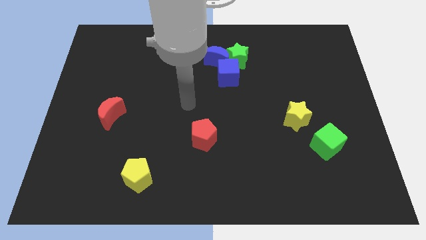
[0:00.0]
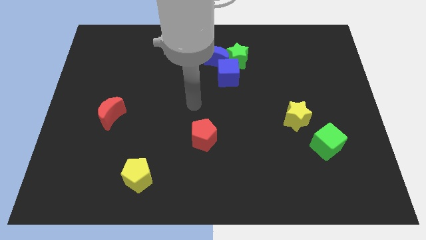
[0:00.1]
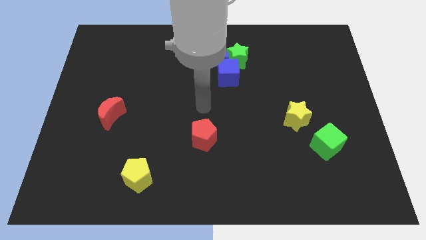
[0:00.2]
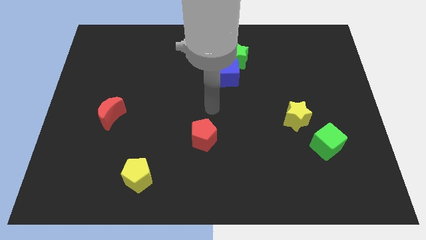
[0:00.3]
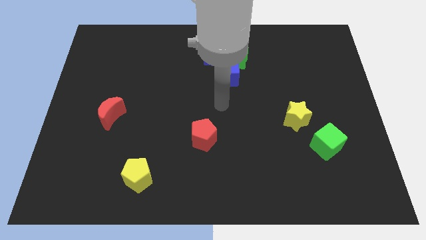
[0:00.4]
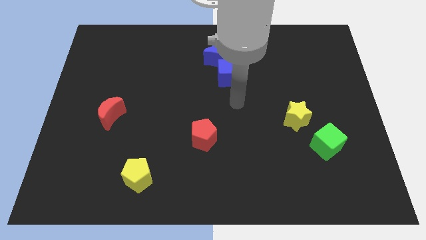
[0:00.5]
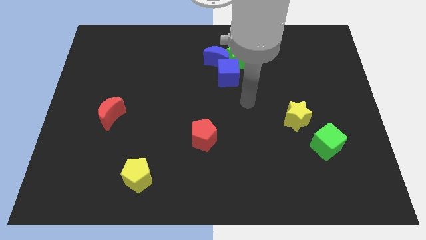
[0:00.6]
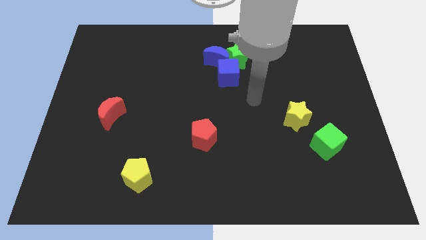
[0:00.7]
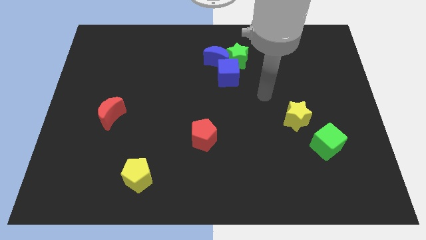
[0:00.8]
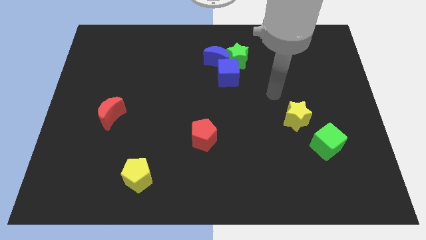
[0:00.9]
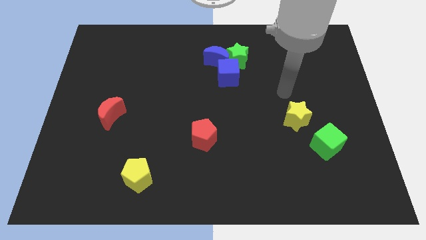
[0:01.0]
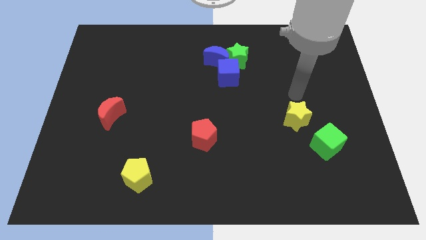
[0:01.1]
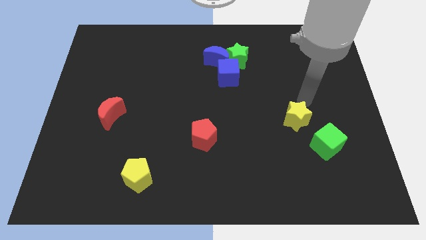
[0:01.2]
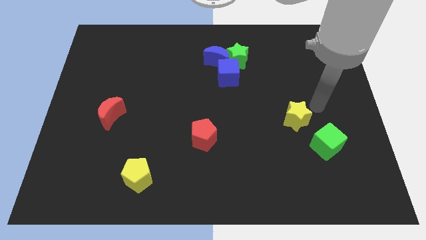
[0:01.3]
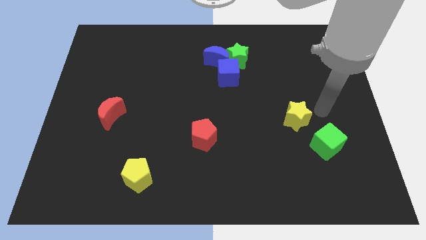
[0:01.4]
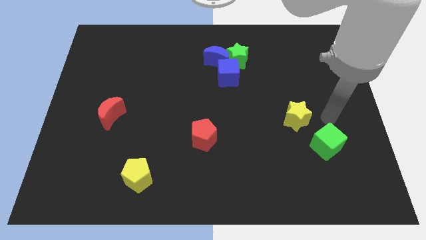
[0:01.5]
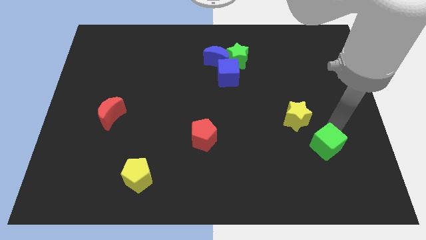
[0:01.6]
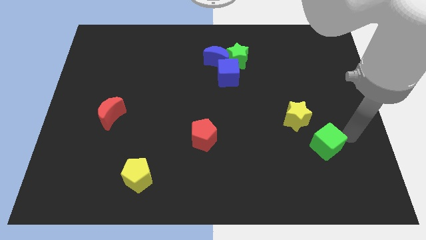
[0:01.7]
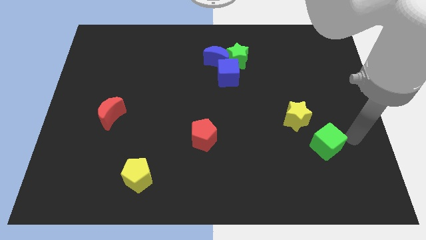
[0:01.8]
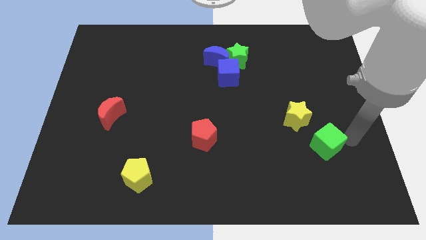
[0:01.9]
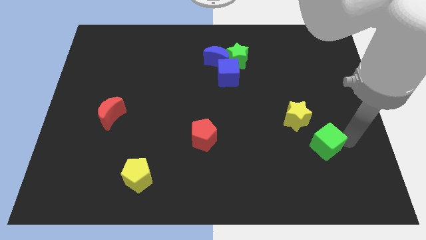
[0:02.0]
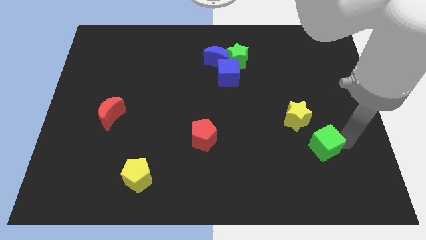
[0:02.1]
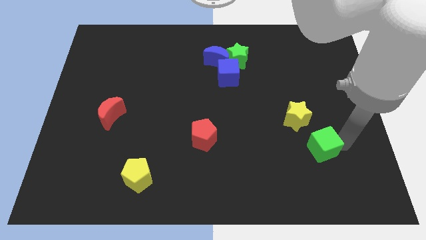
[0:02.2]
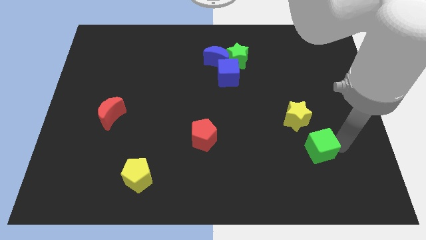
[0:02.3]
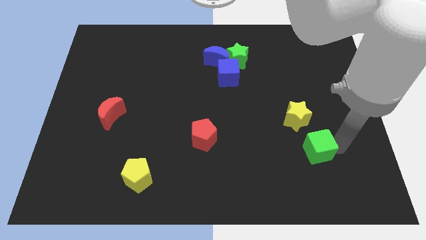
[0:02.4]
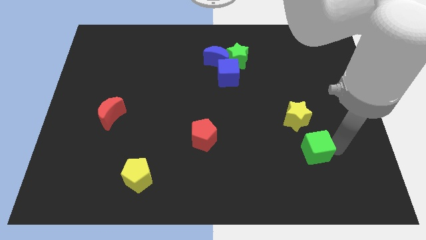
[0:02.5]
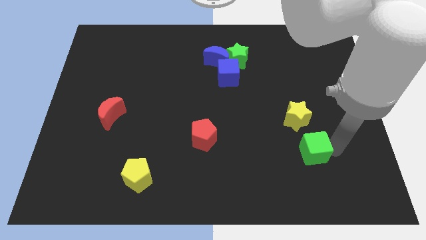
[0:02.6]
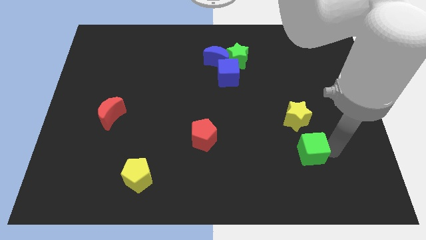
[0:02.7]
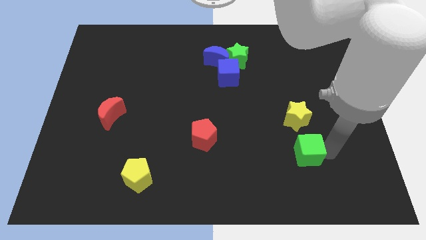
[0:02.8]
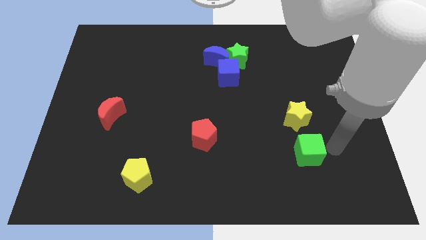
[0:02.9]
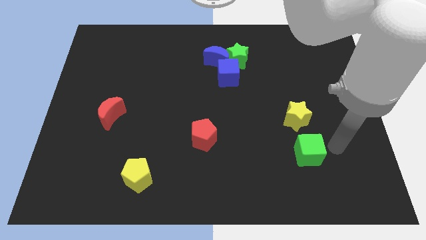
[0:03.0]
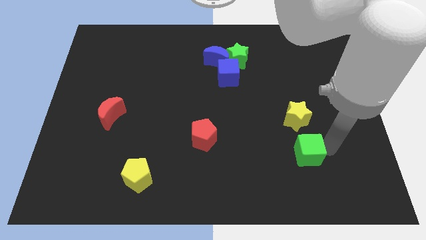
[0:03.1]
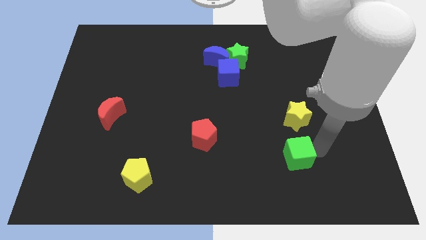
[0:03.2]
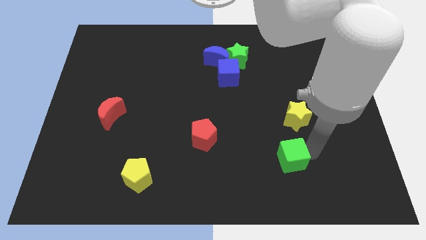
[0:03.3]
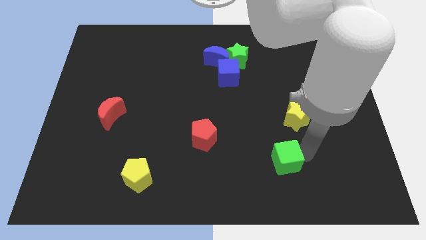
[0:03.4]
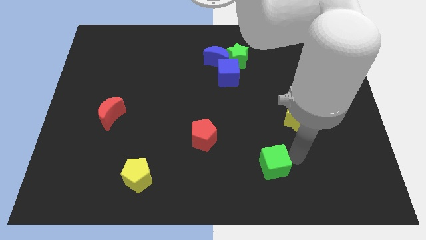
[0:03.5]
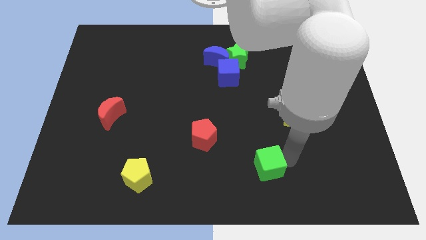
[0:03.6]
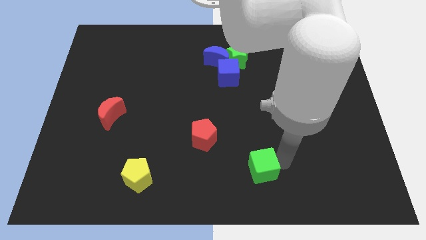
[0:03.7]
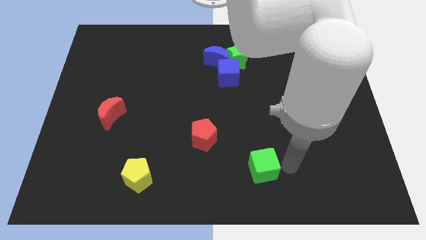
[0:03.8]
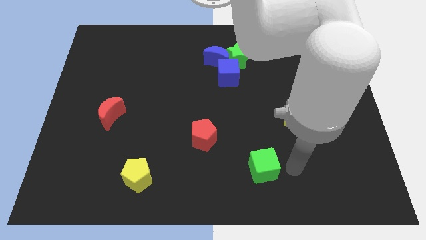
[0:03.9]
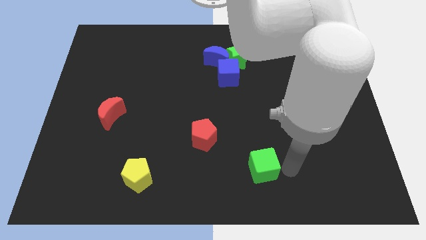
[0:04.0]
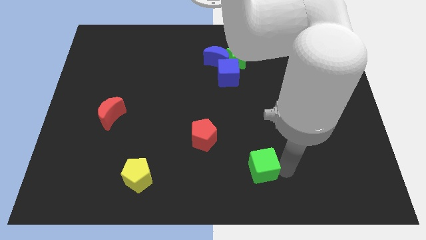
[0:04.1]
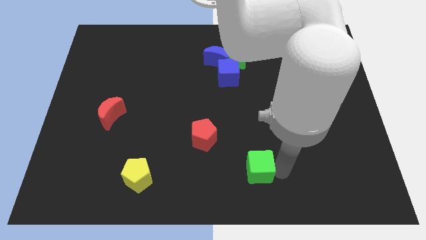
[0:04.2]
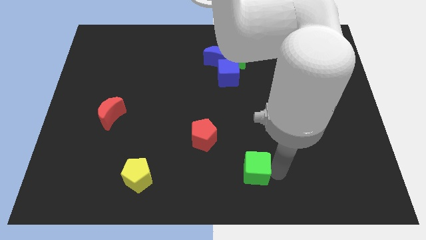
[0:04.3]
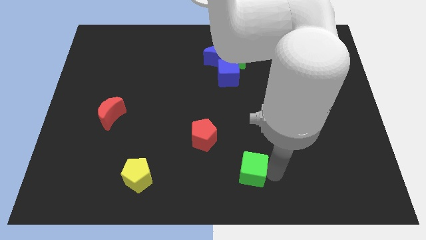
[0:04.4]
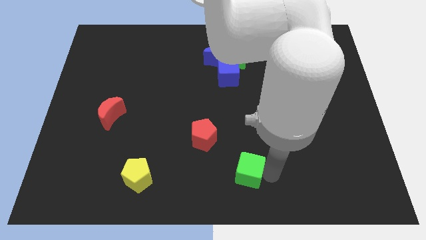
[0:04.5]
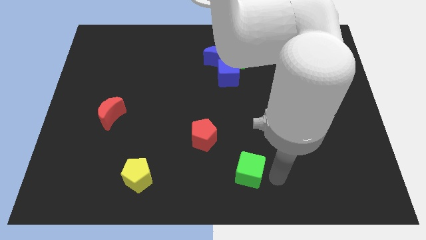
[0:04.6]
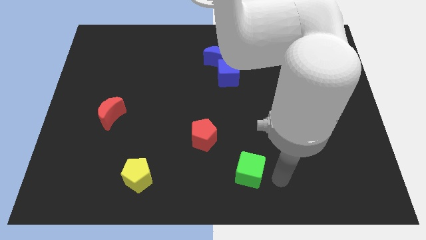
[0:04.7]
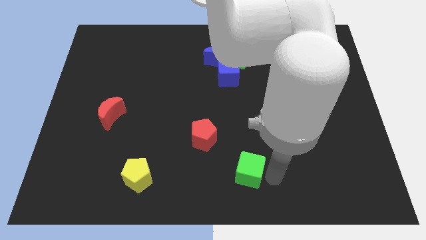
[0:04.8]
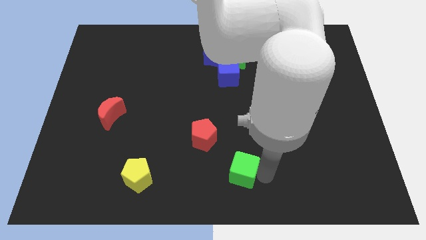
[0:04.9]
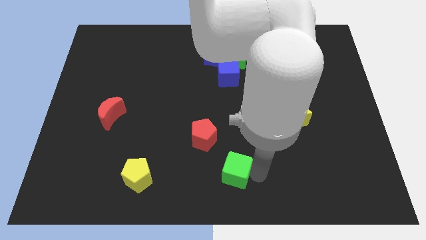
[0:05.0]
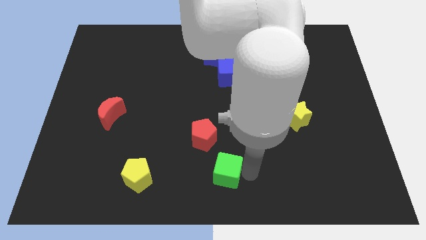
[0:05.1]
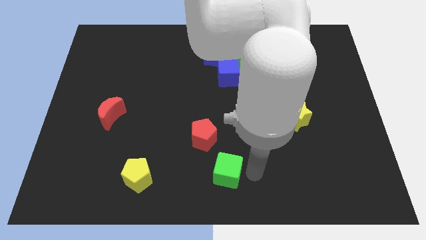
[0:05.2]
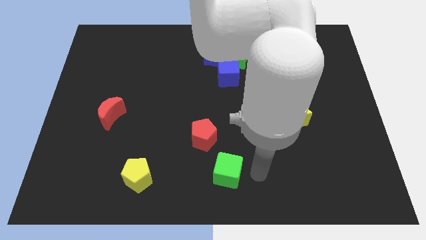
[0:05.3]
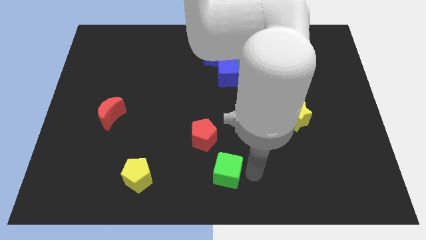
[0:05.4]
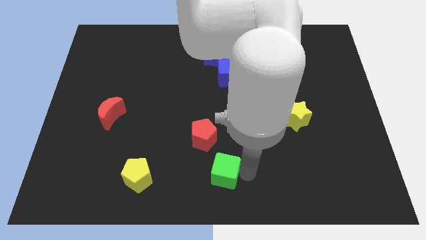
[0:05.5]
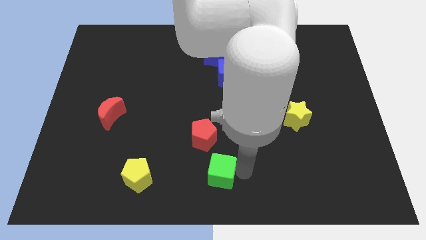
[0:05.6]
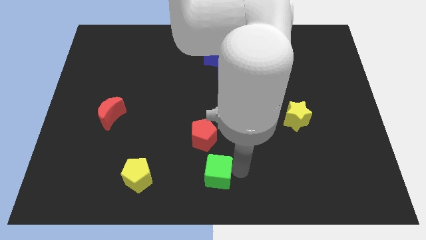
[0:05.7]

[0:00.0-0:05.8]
move the green cube just right of the yellow pentagon

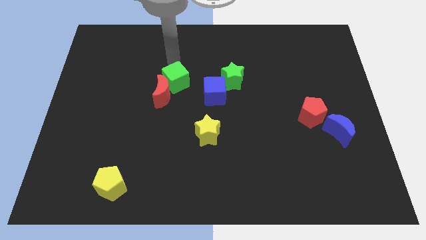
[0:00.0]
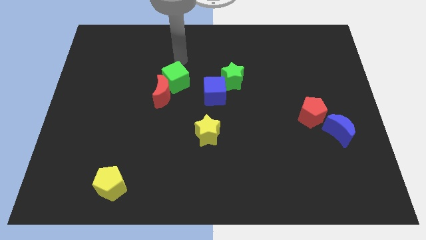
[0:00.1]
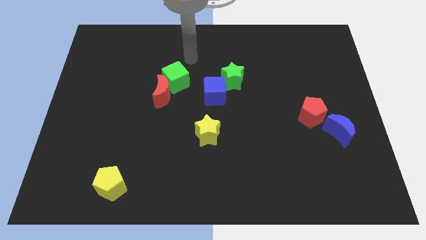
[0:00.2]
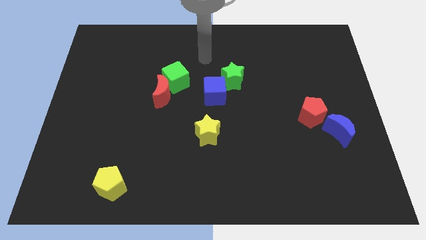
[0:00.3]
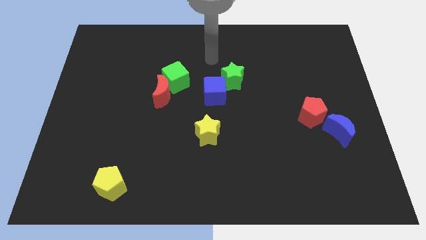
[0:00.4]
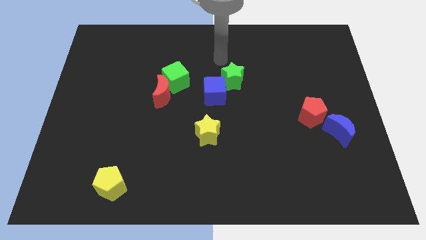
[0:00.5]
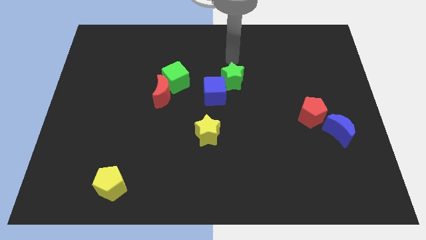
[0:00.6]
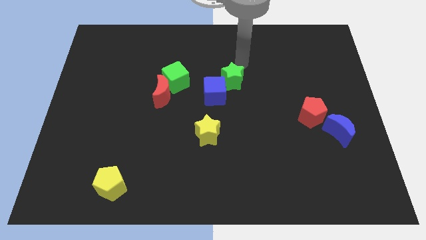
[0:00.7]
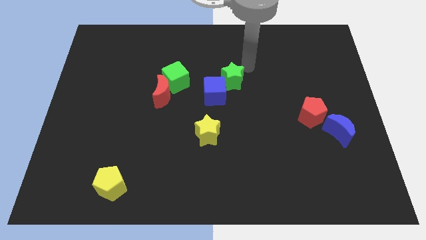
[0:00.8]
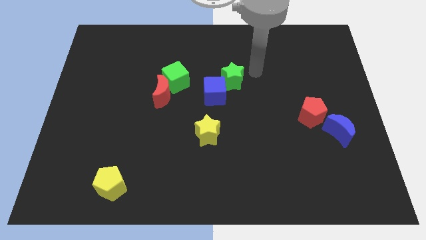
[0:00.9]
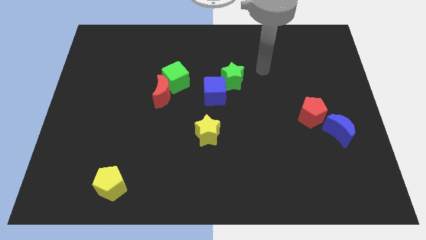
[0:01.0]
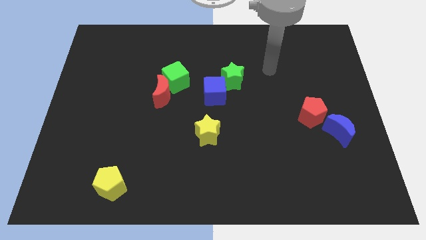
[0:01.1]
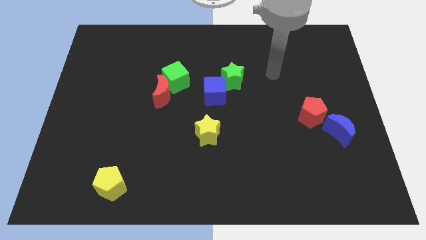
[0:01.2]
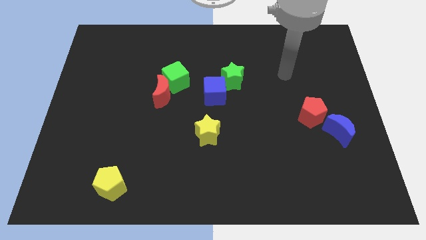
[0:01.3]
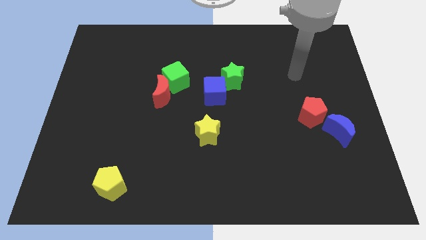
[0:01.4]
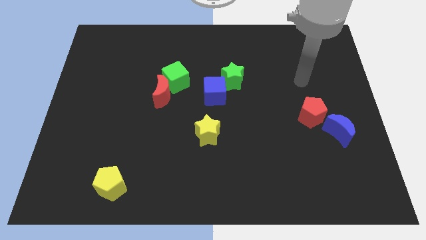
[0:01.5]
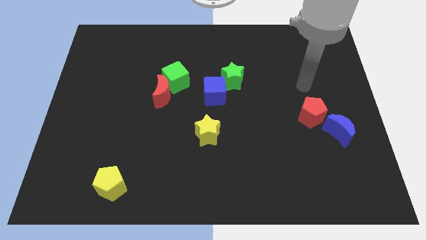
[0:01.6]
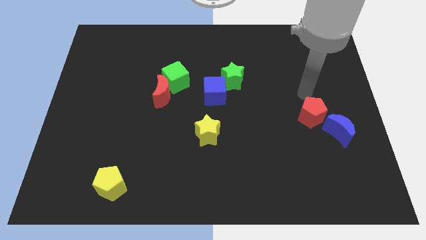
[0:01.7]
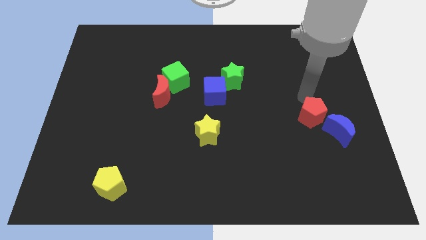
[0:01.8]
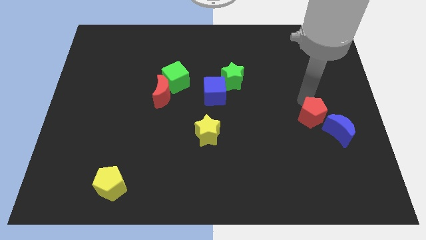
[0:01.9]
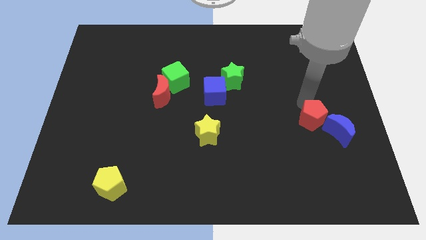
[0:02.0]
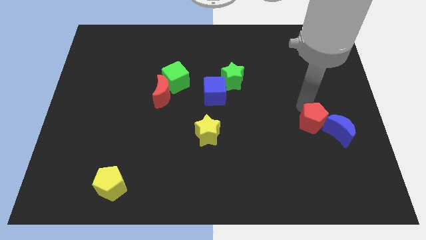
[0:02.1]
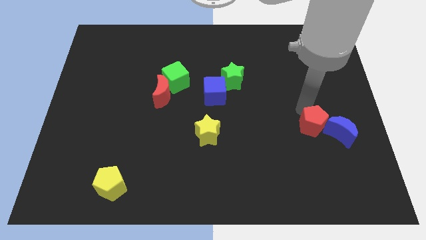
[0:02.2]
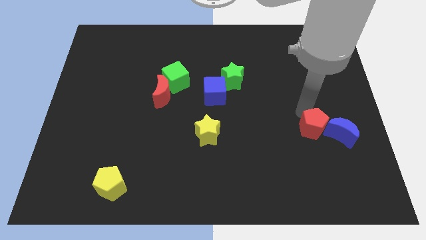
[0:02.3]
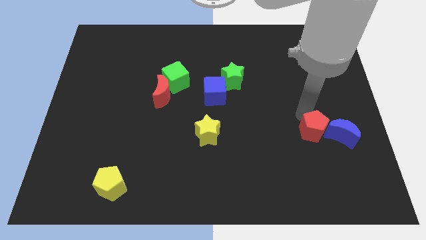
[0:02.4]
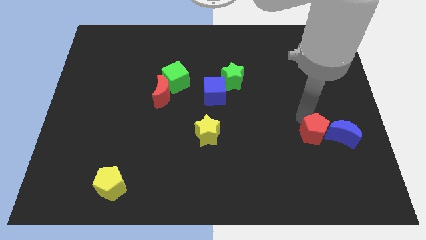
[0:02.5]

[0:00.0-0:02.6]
slide the red pentagon to the bottom left side of the blue moon
